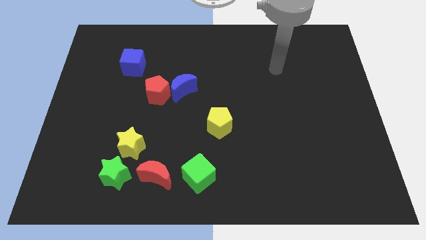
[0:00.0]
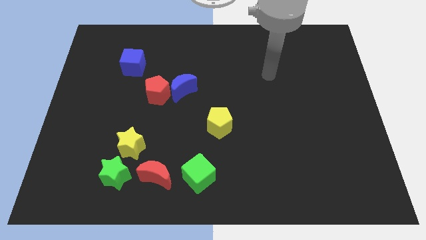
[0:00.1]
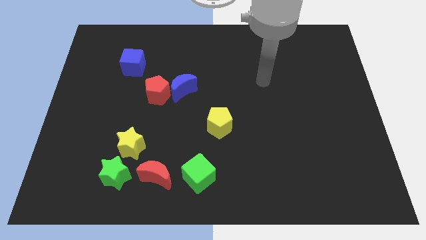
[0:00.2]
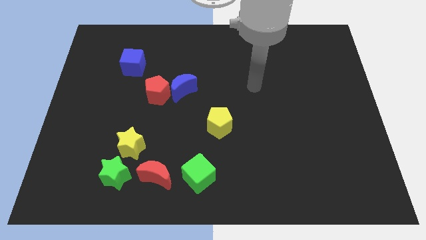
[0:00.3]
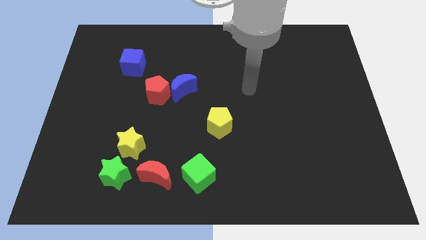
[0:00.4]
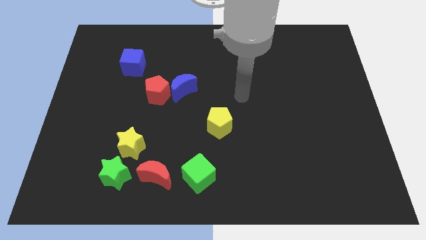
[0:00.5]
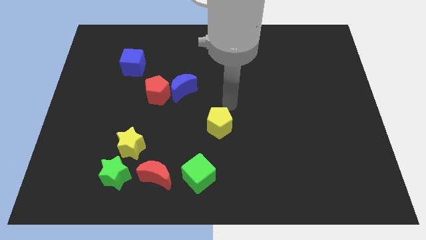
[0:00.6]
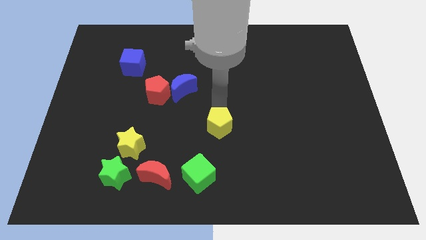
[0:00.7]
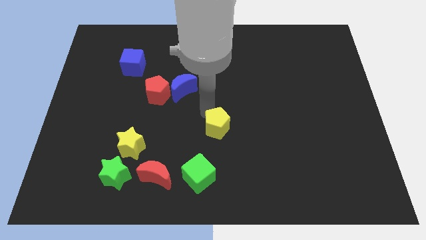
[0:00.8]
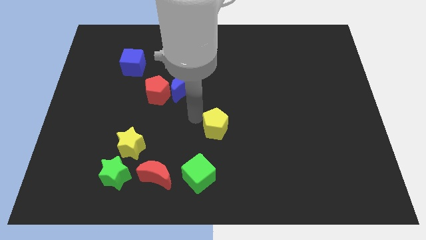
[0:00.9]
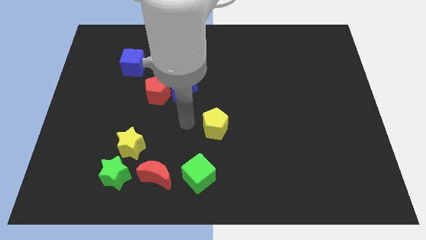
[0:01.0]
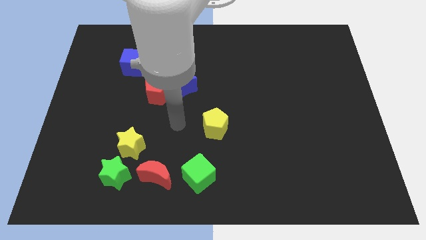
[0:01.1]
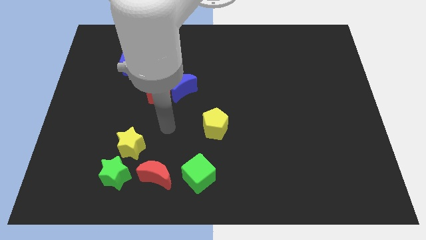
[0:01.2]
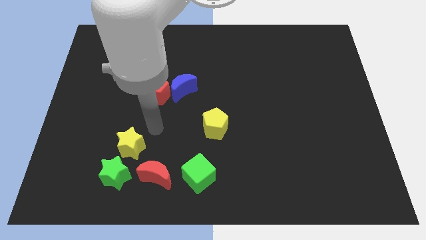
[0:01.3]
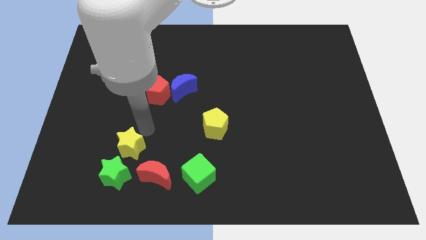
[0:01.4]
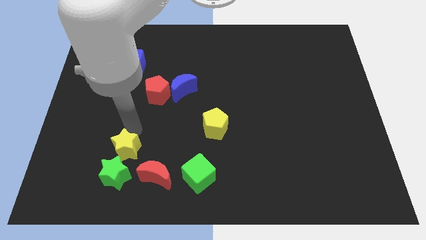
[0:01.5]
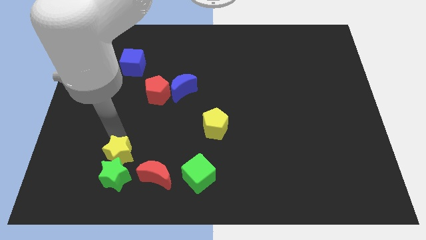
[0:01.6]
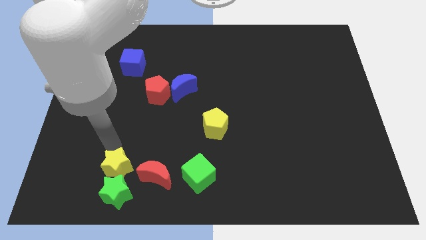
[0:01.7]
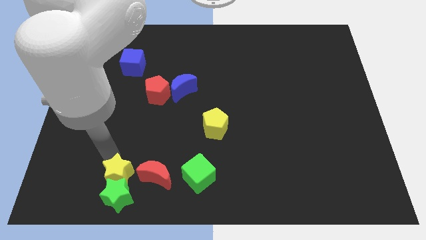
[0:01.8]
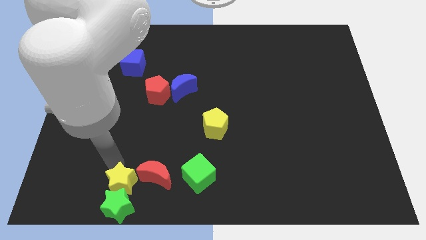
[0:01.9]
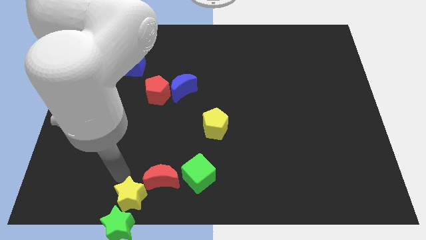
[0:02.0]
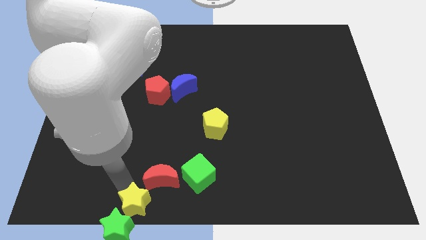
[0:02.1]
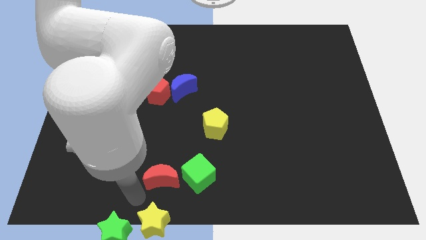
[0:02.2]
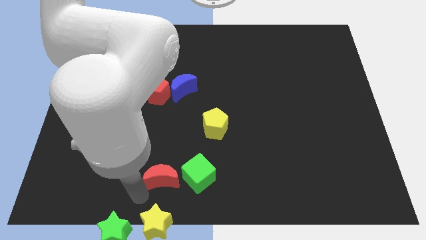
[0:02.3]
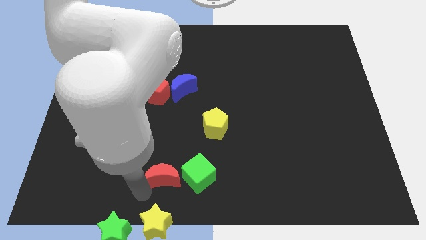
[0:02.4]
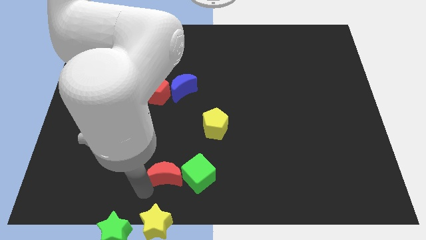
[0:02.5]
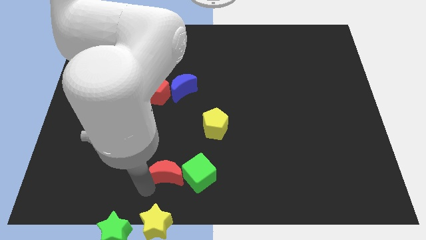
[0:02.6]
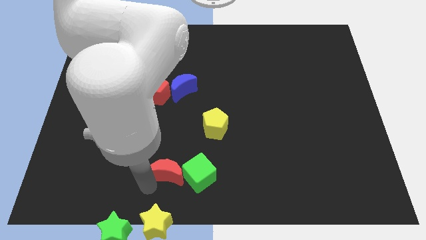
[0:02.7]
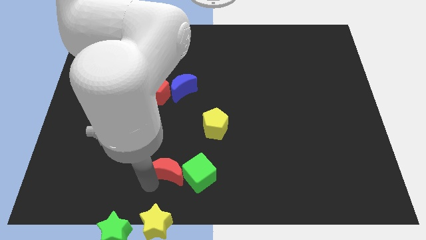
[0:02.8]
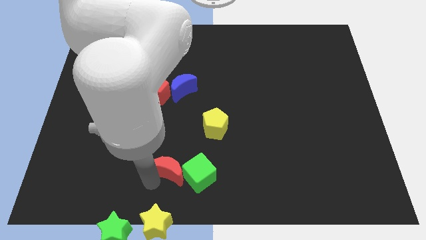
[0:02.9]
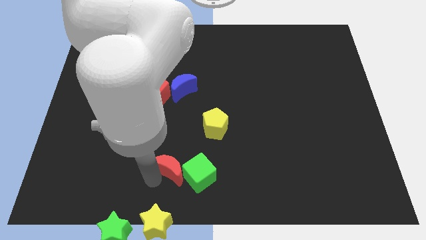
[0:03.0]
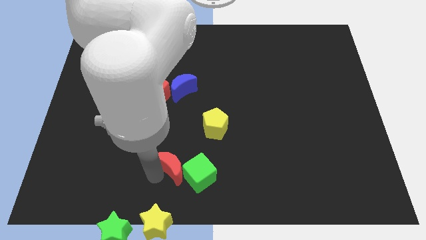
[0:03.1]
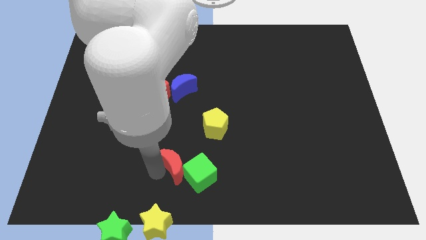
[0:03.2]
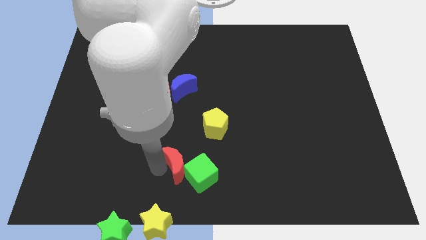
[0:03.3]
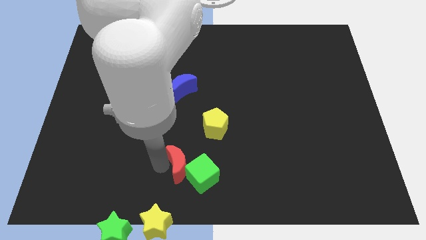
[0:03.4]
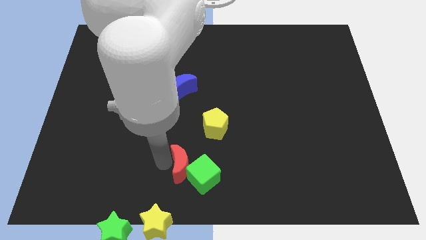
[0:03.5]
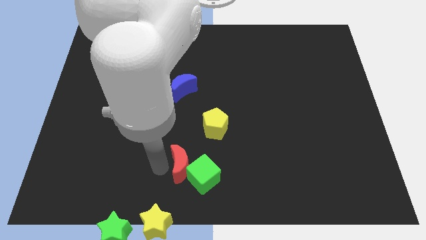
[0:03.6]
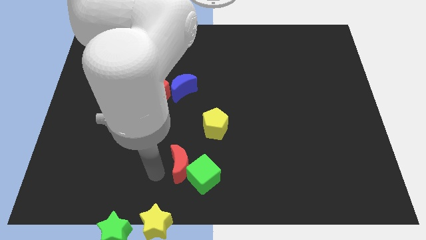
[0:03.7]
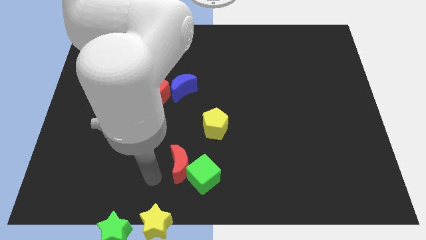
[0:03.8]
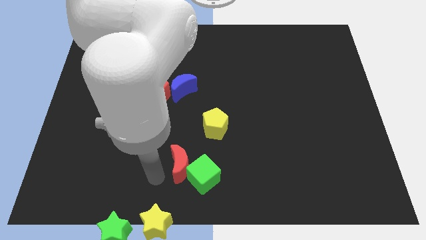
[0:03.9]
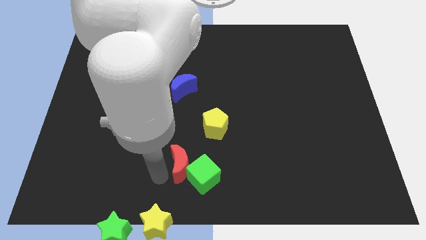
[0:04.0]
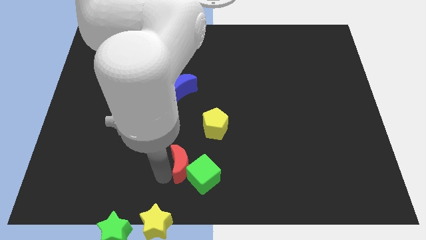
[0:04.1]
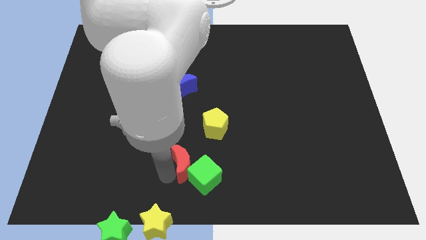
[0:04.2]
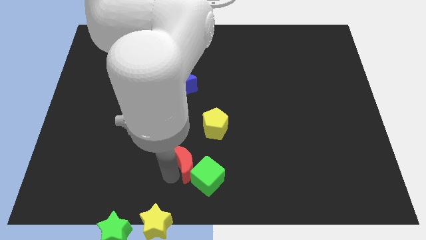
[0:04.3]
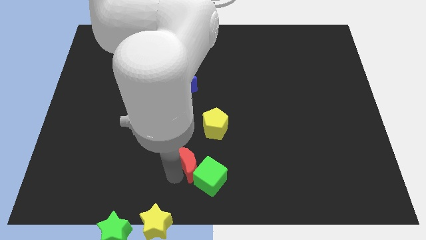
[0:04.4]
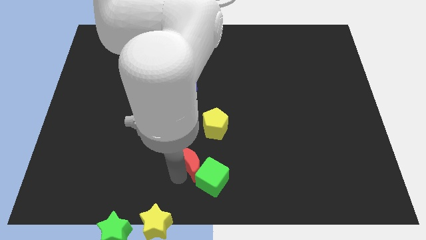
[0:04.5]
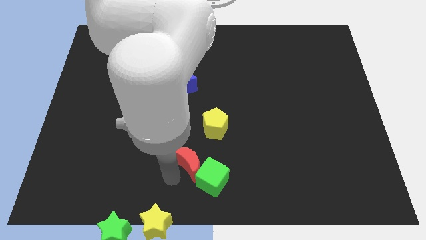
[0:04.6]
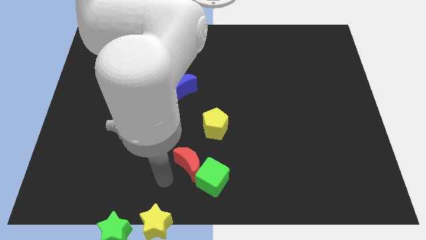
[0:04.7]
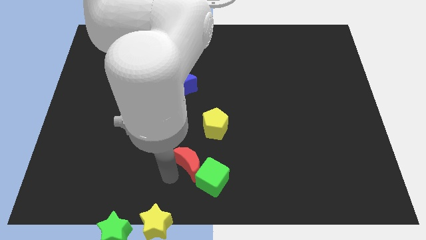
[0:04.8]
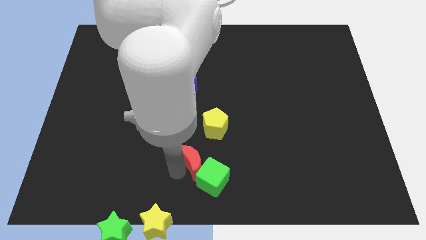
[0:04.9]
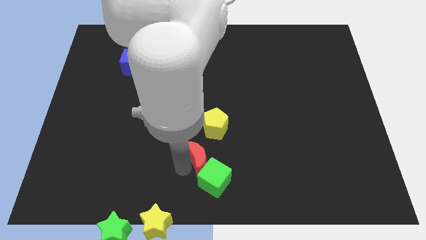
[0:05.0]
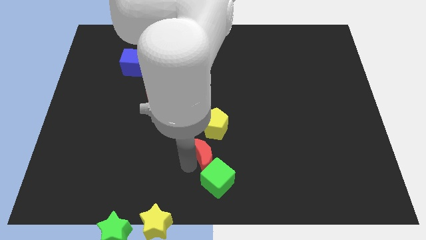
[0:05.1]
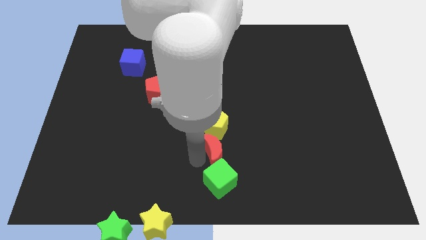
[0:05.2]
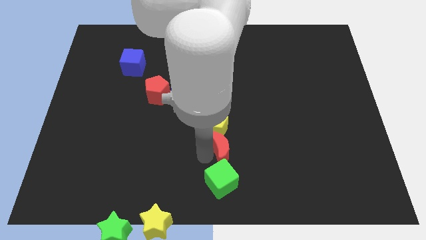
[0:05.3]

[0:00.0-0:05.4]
put the red moon to the bottom right of the yellow pentagon

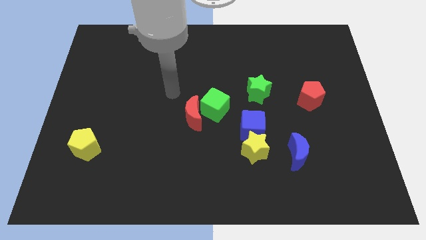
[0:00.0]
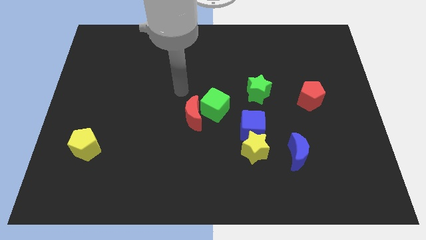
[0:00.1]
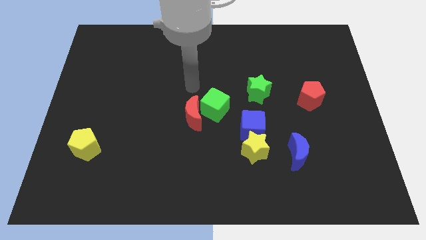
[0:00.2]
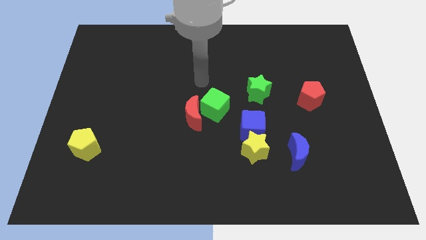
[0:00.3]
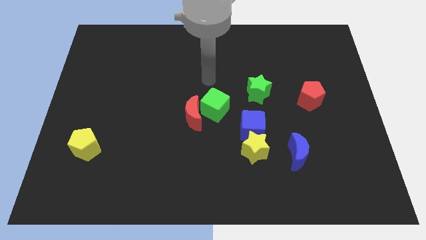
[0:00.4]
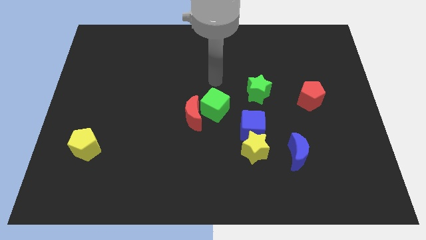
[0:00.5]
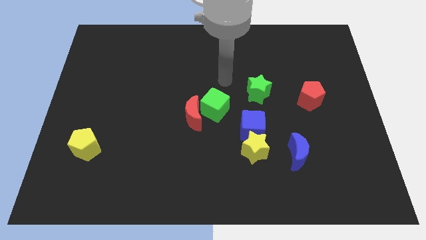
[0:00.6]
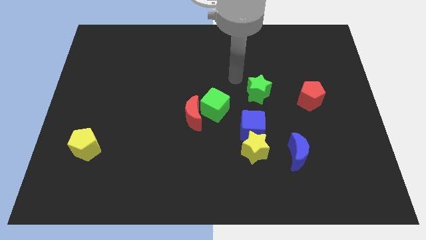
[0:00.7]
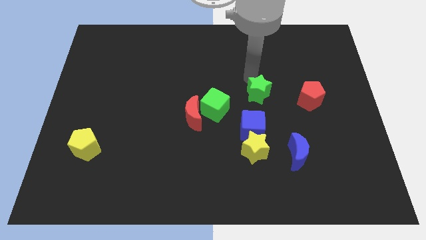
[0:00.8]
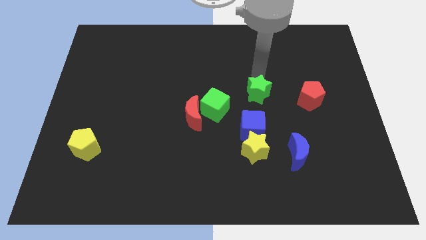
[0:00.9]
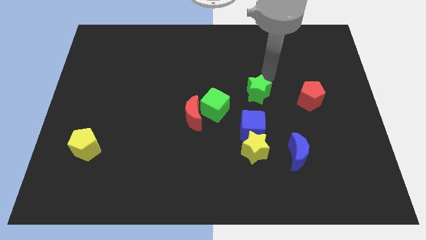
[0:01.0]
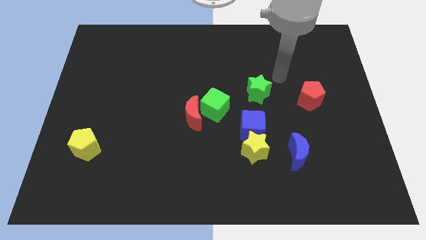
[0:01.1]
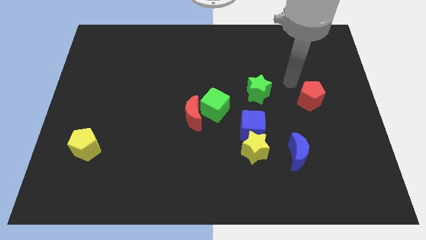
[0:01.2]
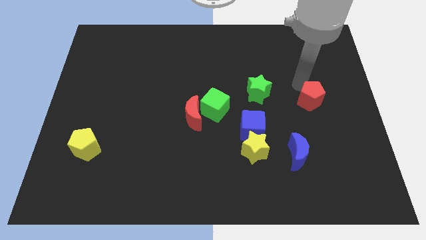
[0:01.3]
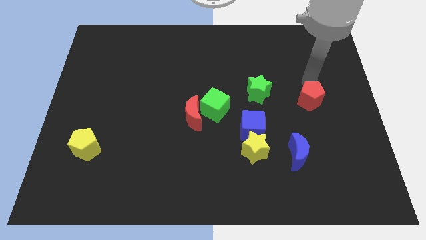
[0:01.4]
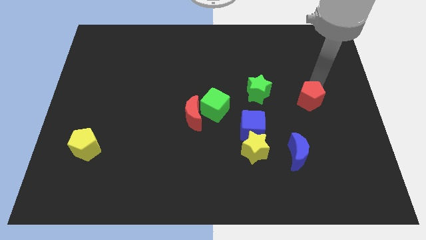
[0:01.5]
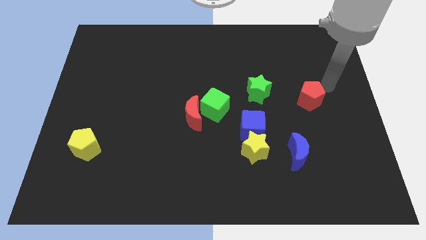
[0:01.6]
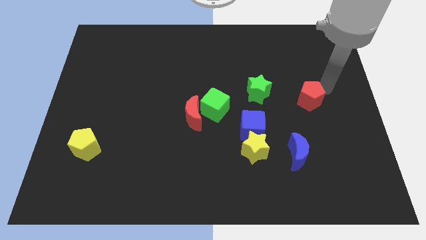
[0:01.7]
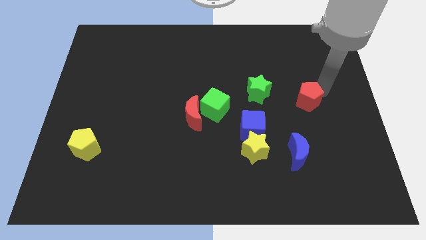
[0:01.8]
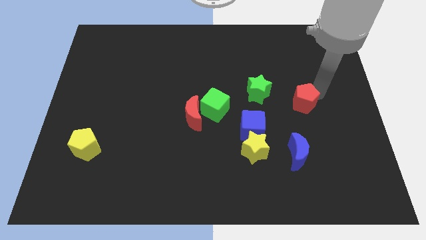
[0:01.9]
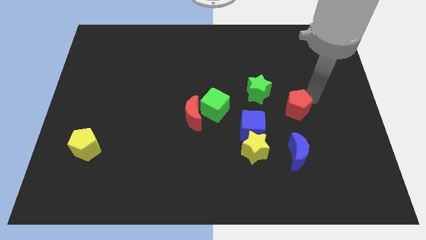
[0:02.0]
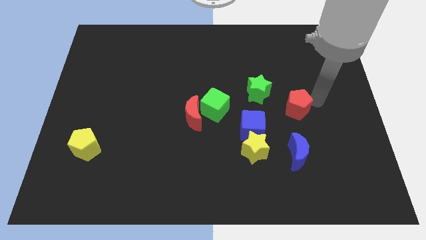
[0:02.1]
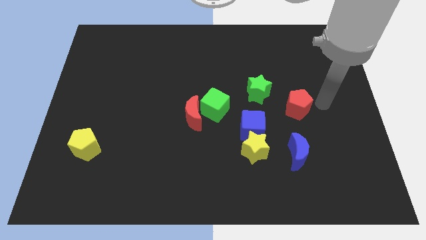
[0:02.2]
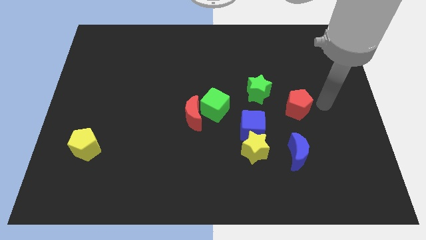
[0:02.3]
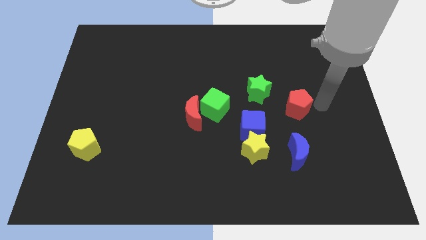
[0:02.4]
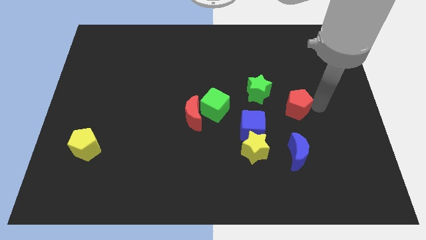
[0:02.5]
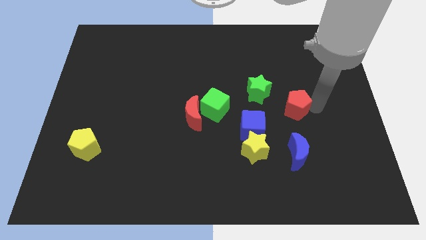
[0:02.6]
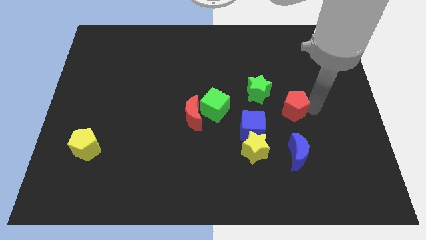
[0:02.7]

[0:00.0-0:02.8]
slide the red pentagon diagonally up and to the right of the blue cube
